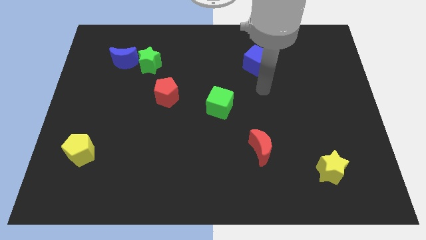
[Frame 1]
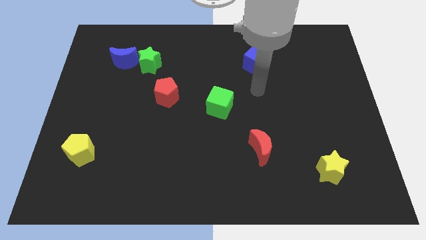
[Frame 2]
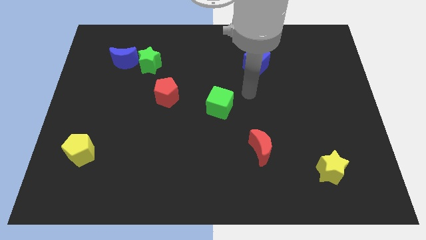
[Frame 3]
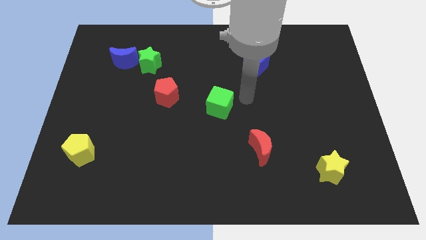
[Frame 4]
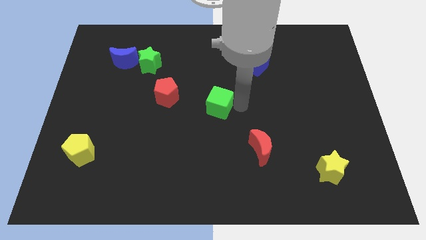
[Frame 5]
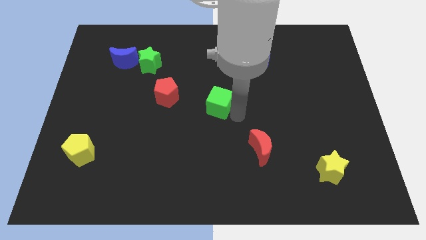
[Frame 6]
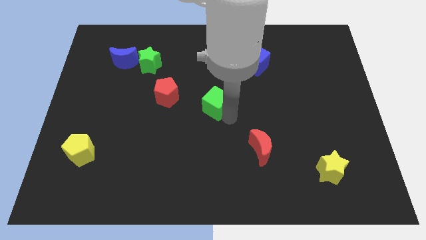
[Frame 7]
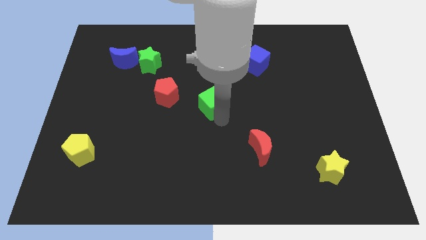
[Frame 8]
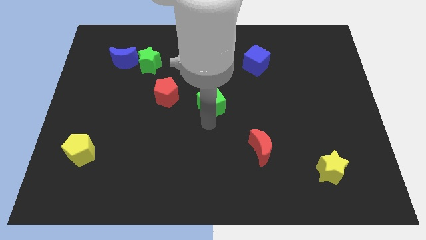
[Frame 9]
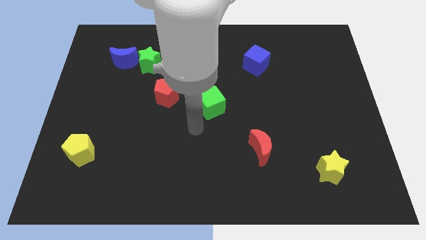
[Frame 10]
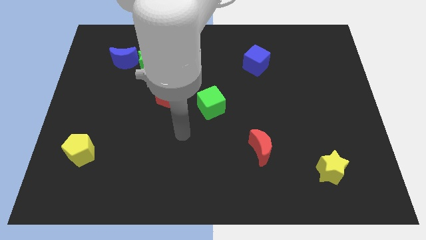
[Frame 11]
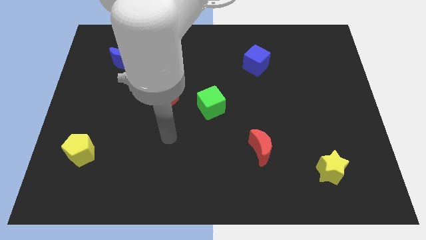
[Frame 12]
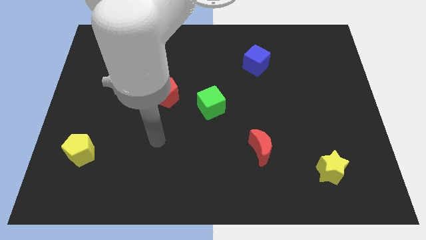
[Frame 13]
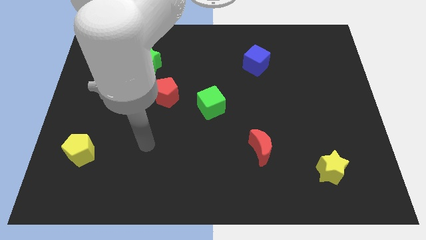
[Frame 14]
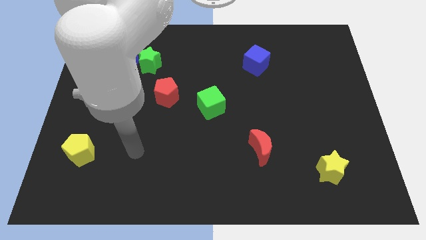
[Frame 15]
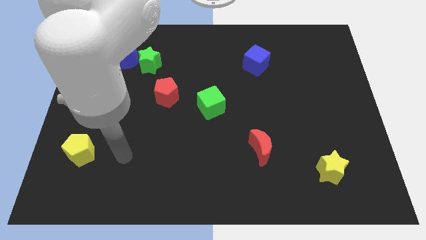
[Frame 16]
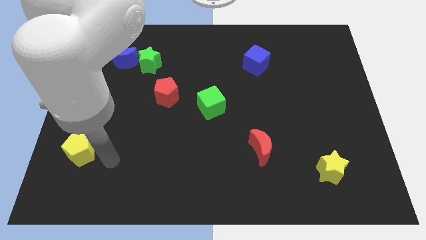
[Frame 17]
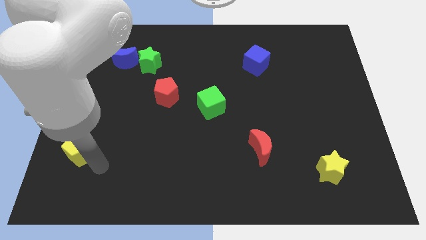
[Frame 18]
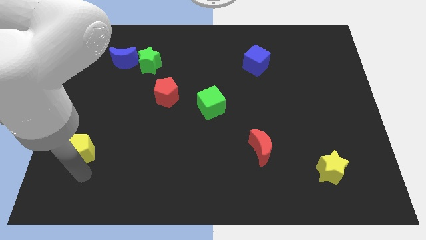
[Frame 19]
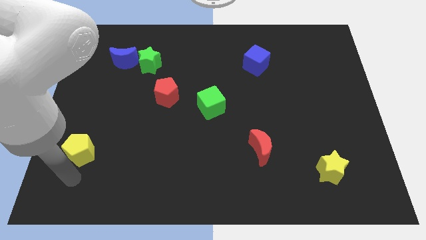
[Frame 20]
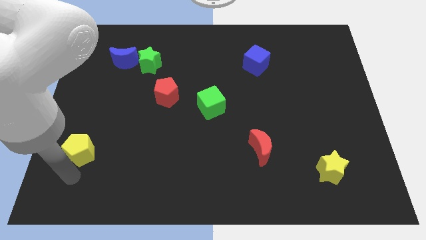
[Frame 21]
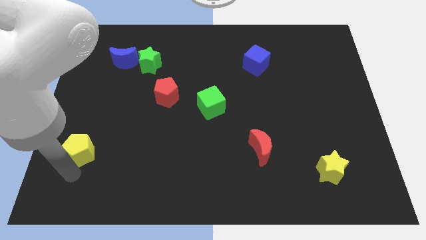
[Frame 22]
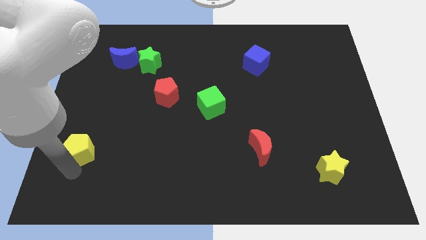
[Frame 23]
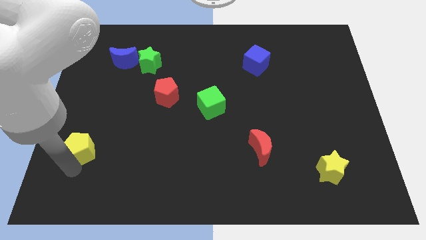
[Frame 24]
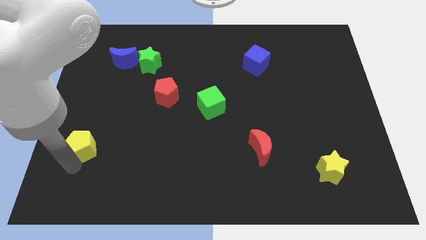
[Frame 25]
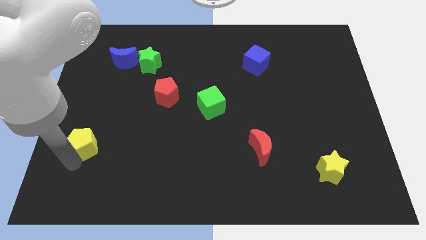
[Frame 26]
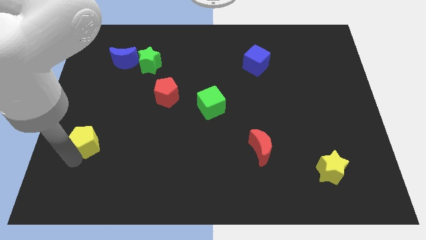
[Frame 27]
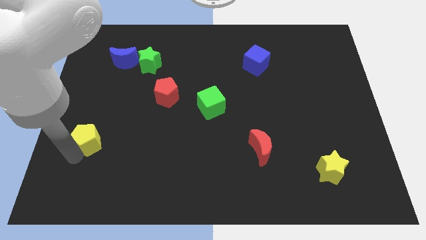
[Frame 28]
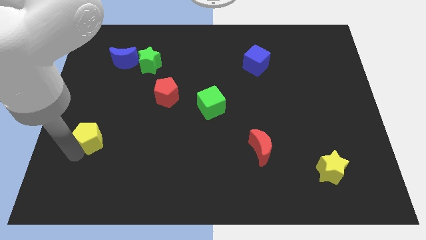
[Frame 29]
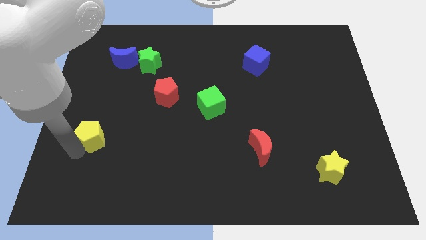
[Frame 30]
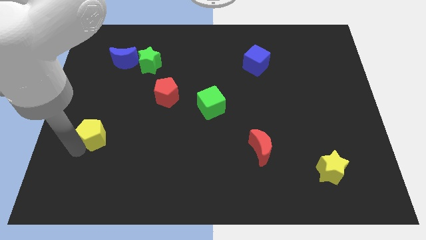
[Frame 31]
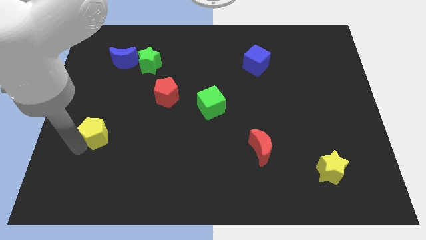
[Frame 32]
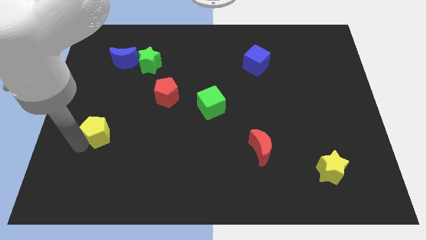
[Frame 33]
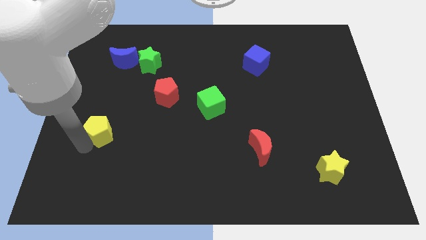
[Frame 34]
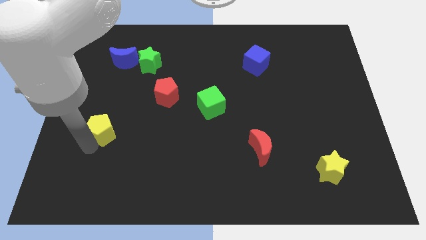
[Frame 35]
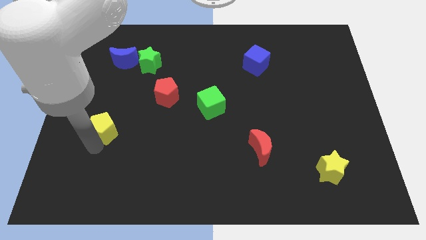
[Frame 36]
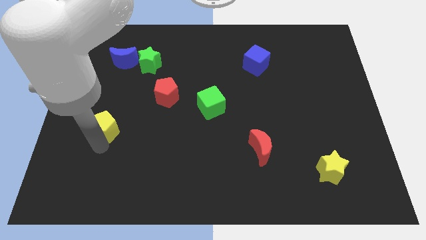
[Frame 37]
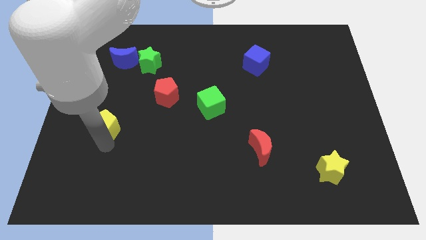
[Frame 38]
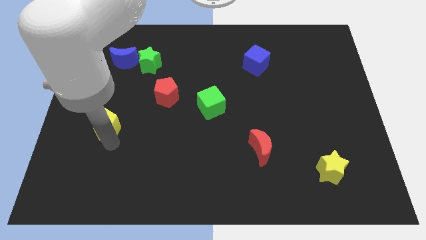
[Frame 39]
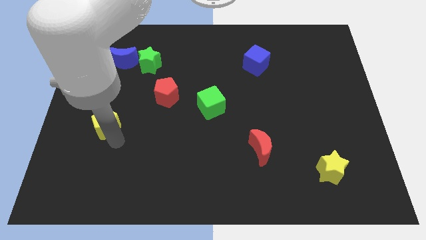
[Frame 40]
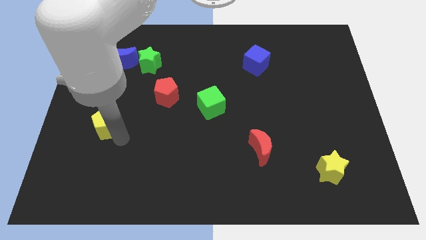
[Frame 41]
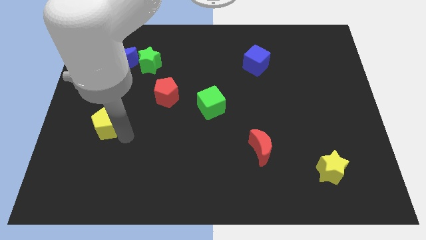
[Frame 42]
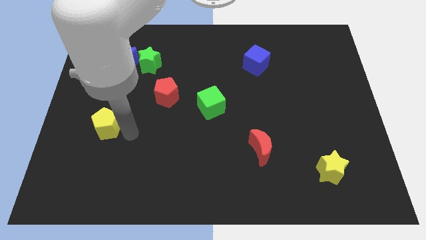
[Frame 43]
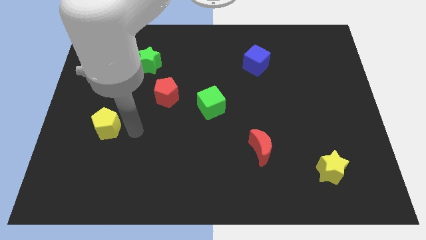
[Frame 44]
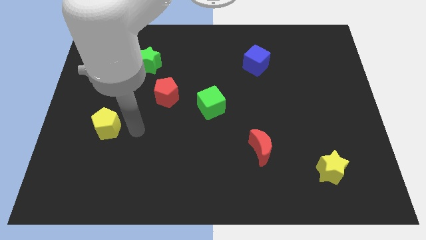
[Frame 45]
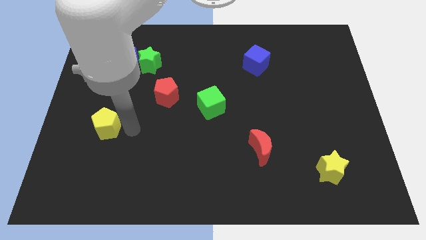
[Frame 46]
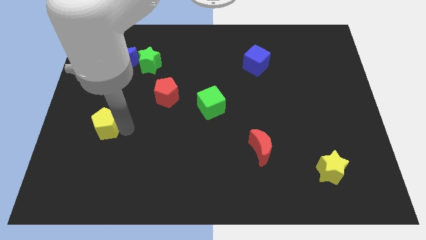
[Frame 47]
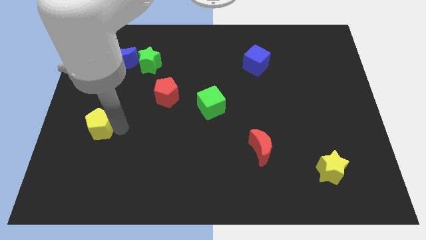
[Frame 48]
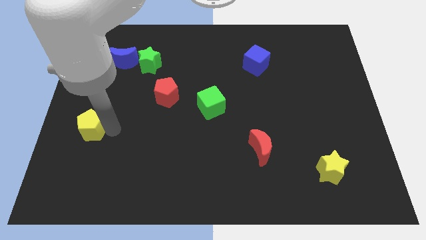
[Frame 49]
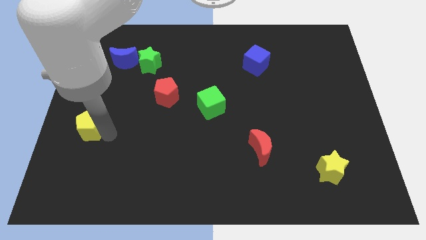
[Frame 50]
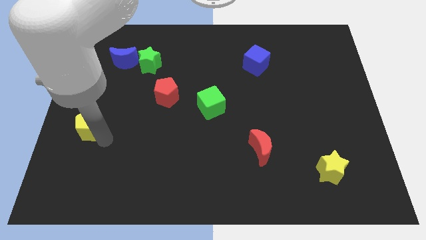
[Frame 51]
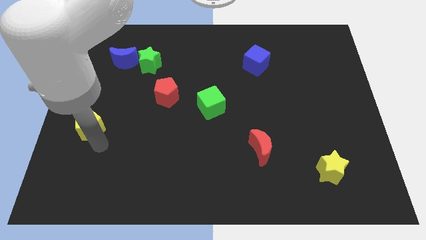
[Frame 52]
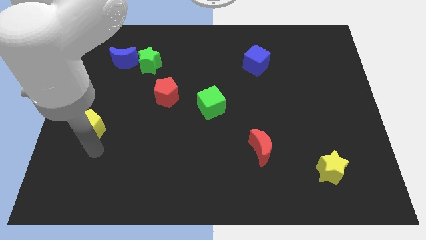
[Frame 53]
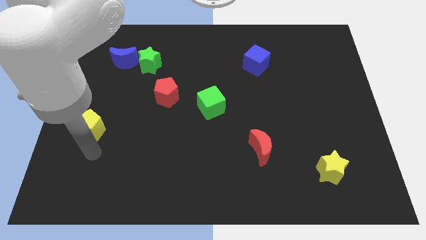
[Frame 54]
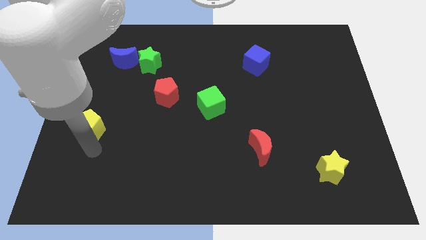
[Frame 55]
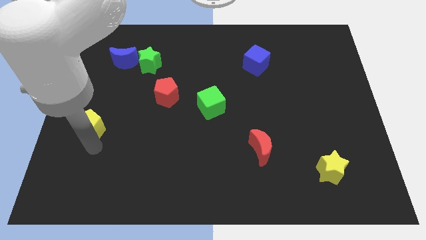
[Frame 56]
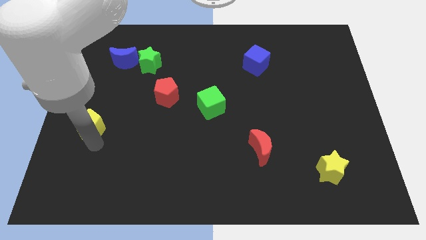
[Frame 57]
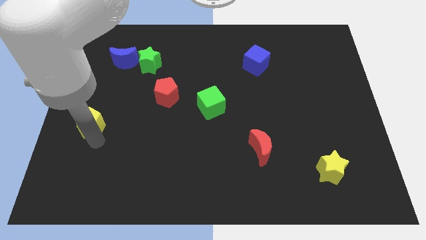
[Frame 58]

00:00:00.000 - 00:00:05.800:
slightly slide the yellow pentagon upwards

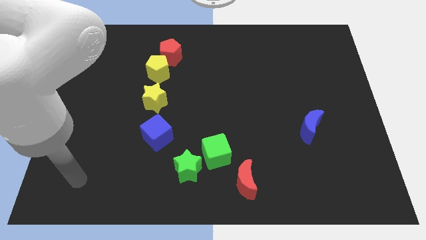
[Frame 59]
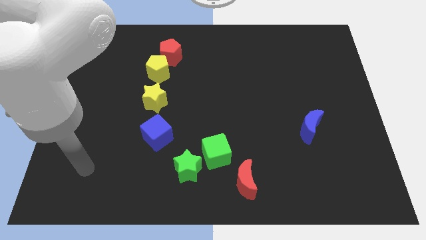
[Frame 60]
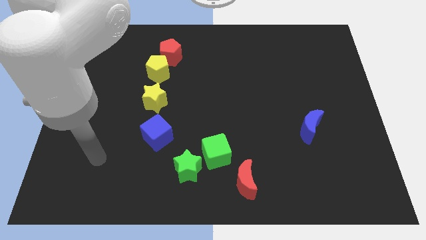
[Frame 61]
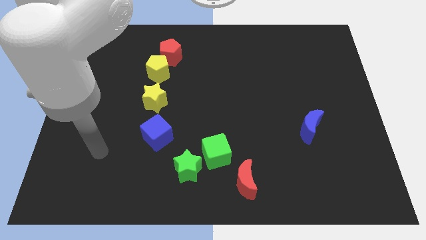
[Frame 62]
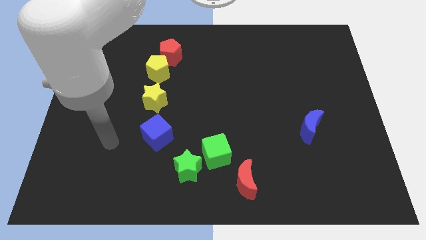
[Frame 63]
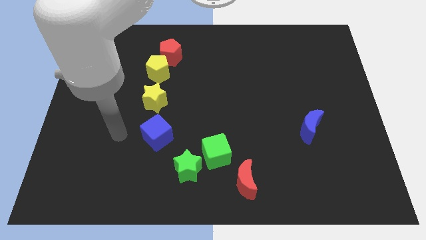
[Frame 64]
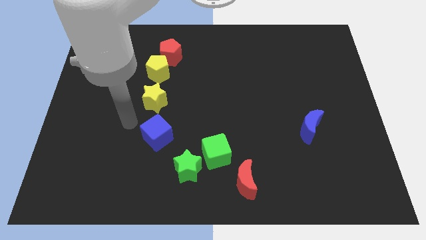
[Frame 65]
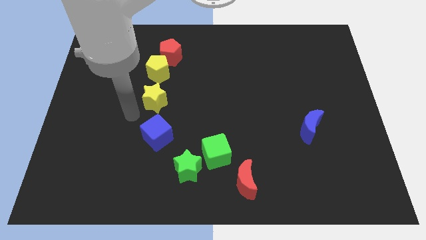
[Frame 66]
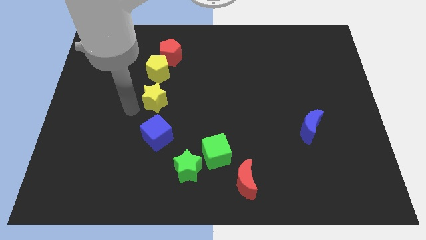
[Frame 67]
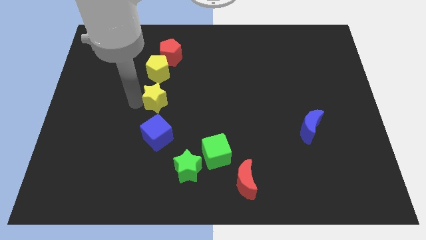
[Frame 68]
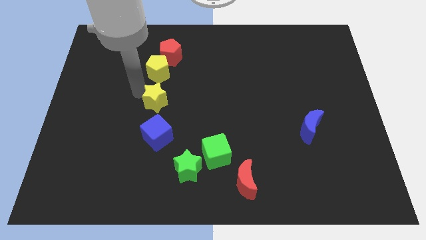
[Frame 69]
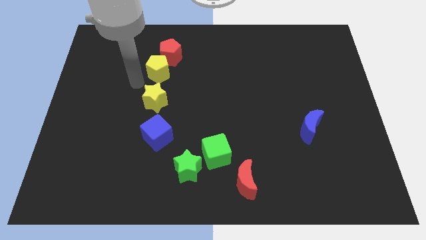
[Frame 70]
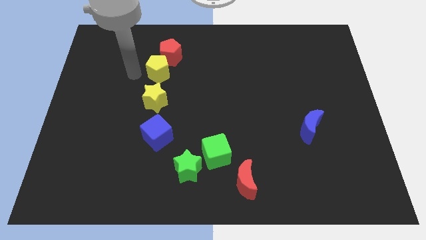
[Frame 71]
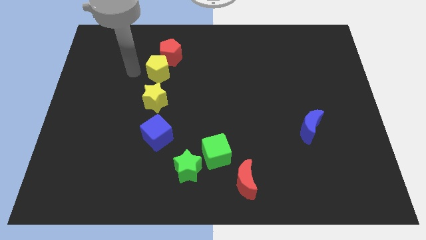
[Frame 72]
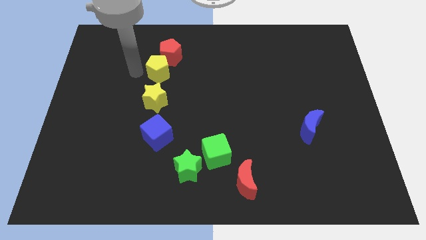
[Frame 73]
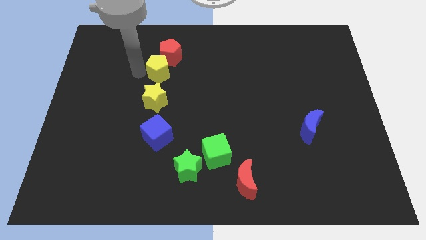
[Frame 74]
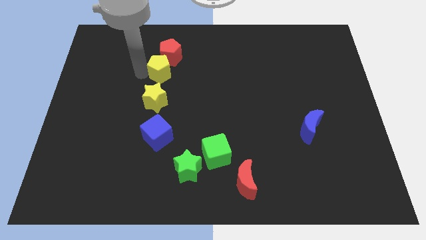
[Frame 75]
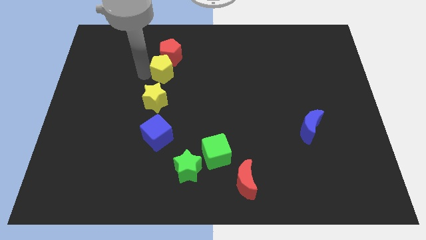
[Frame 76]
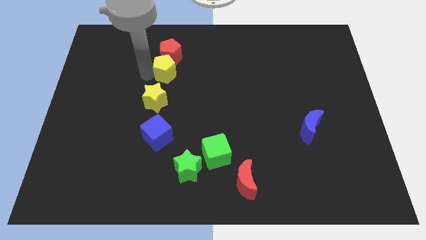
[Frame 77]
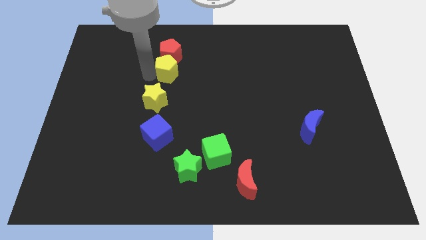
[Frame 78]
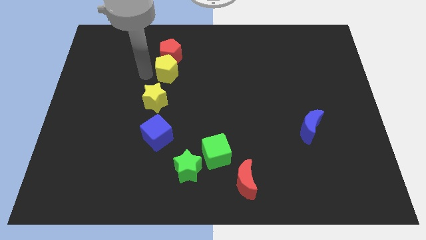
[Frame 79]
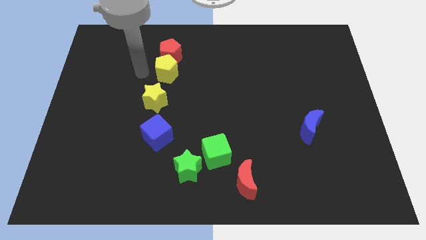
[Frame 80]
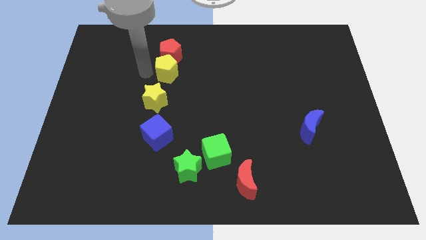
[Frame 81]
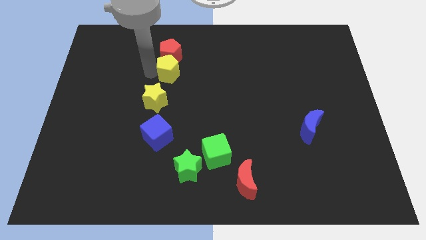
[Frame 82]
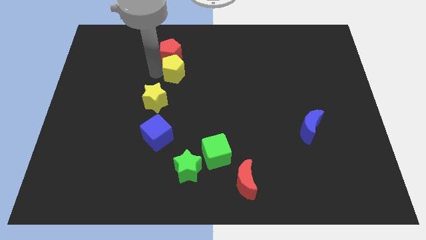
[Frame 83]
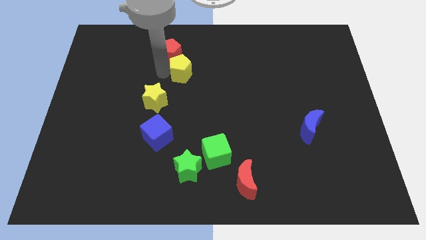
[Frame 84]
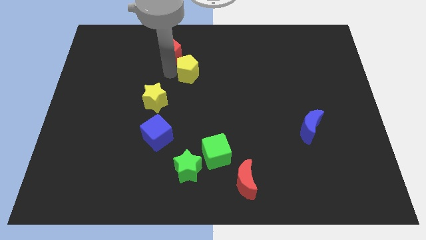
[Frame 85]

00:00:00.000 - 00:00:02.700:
move the yellow pentagon a little bit to the right

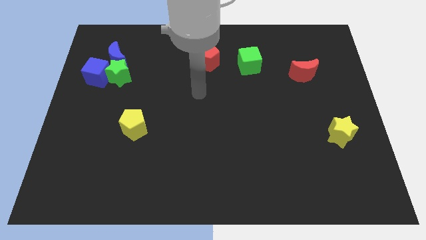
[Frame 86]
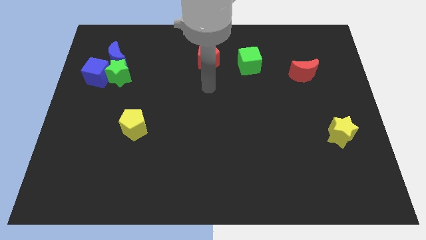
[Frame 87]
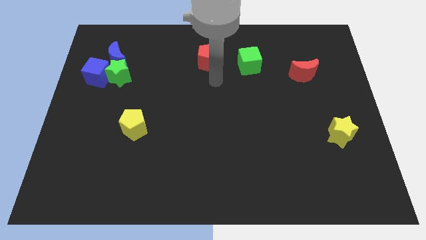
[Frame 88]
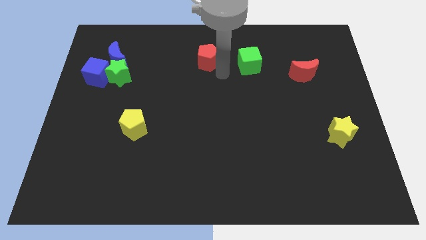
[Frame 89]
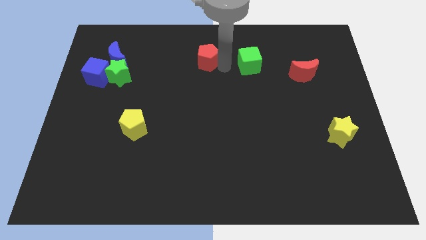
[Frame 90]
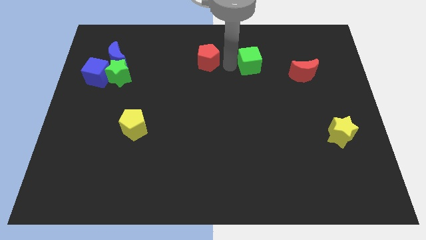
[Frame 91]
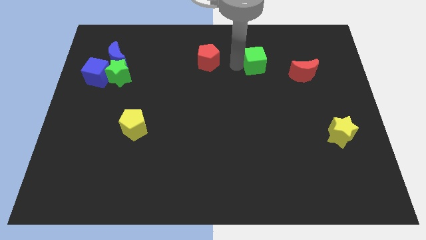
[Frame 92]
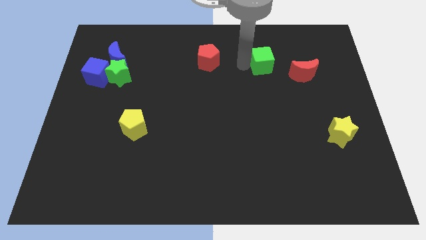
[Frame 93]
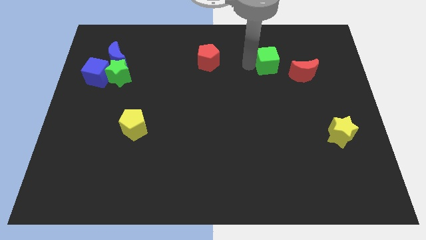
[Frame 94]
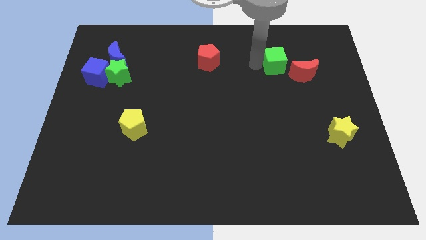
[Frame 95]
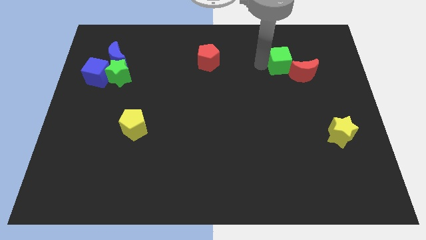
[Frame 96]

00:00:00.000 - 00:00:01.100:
slightly slide the green cube to the right
